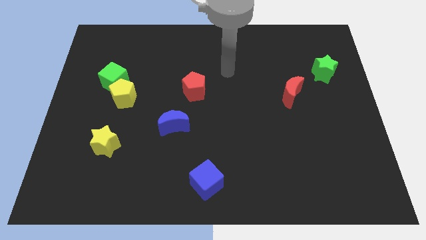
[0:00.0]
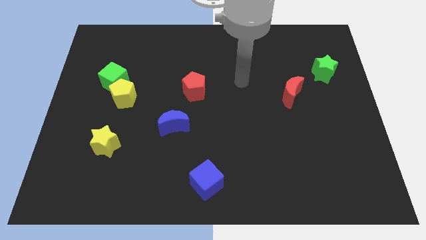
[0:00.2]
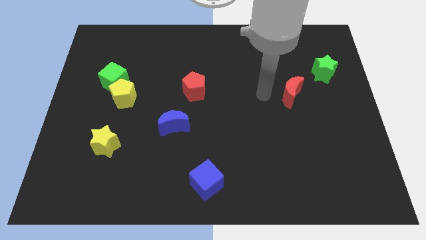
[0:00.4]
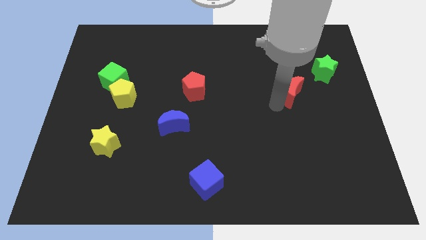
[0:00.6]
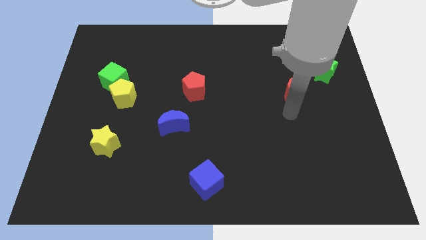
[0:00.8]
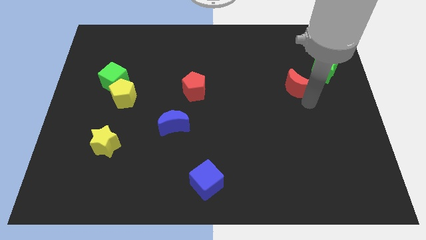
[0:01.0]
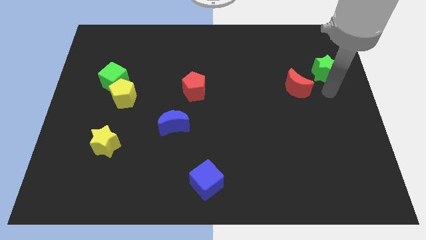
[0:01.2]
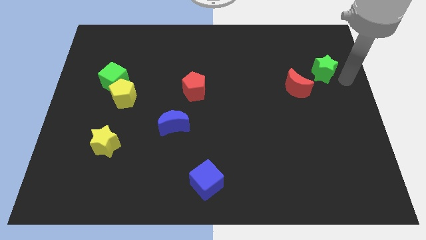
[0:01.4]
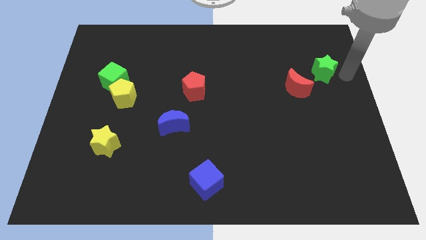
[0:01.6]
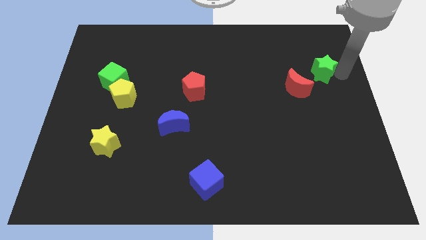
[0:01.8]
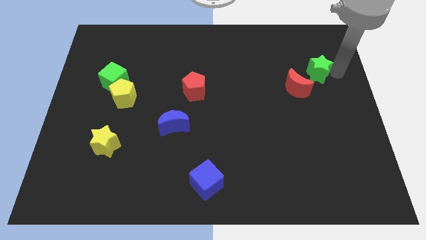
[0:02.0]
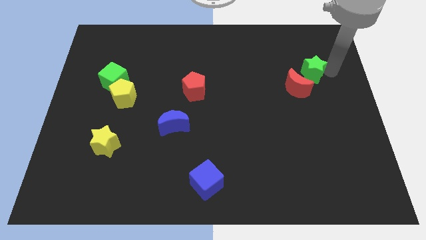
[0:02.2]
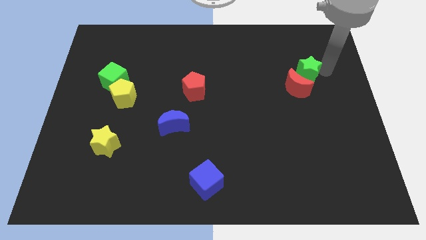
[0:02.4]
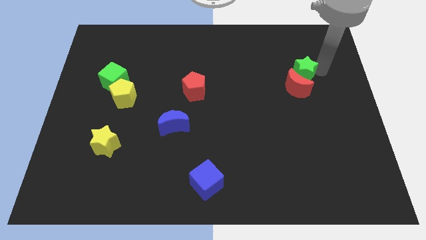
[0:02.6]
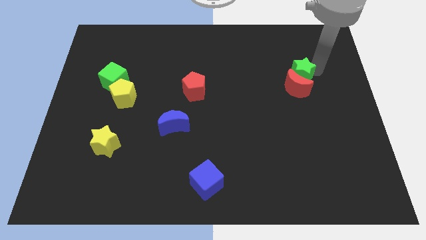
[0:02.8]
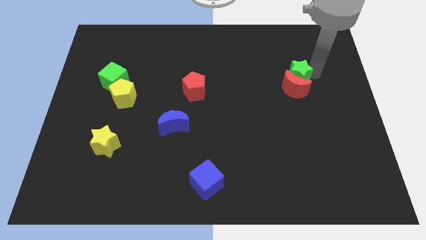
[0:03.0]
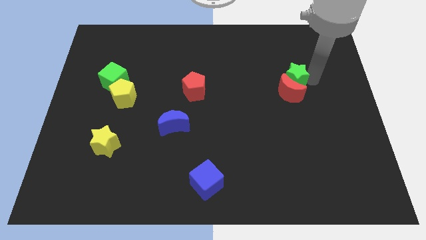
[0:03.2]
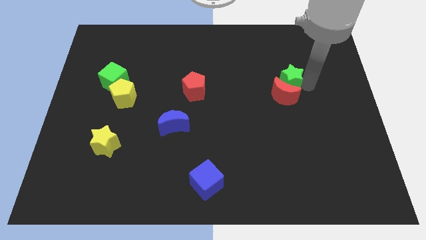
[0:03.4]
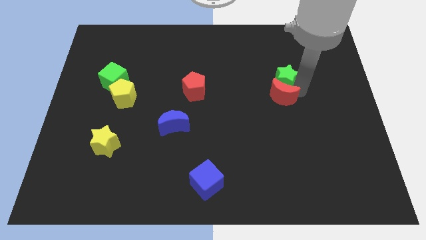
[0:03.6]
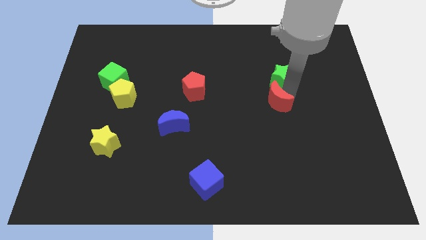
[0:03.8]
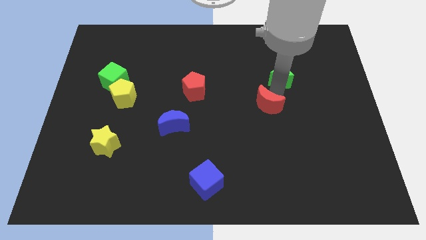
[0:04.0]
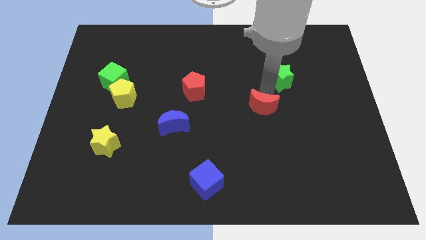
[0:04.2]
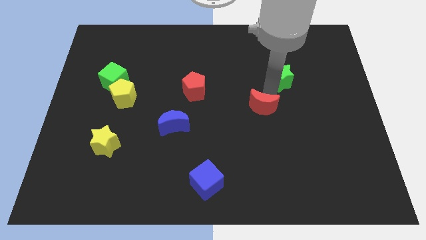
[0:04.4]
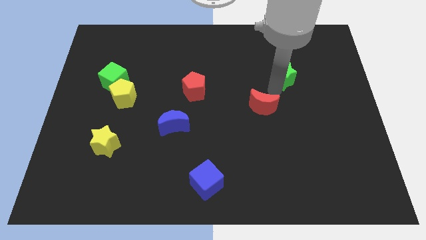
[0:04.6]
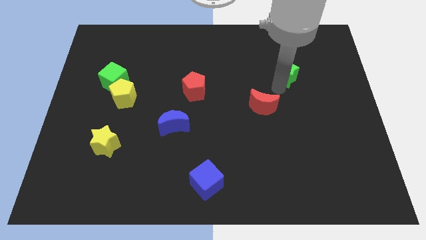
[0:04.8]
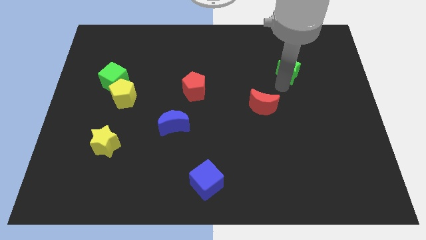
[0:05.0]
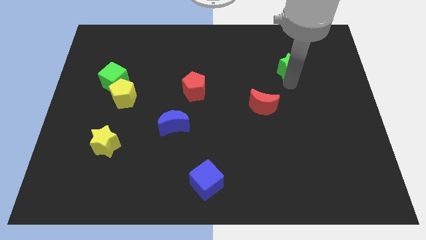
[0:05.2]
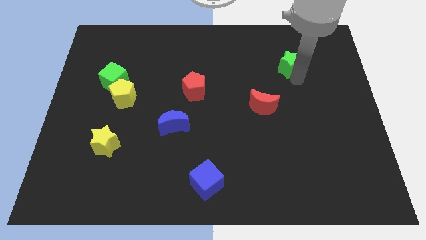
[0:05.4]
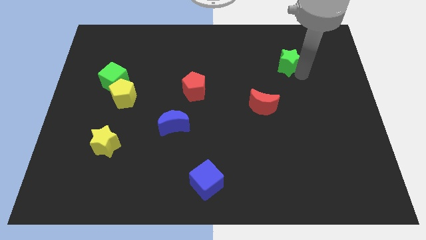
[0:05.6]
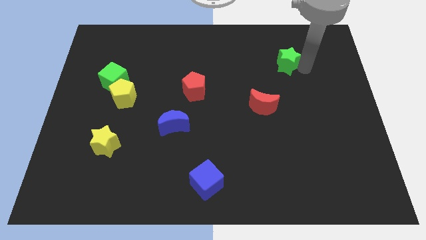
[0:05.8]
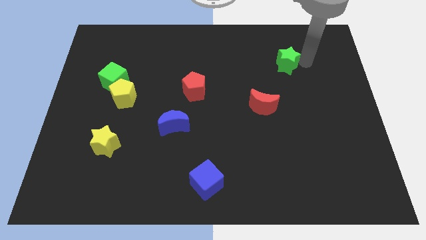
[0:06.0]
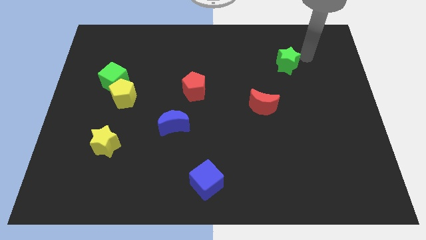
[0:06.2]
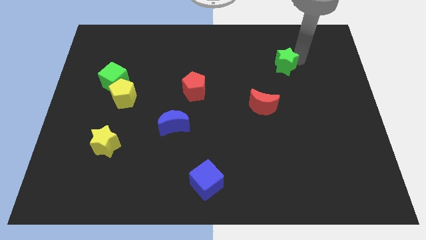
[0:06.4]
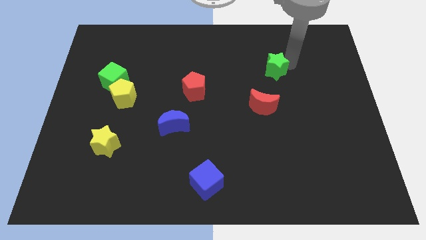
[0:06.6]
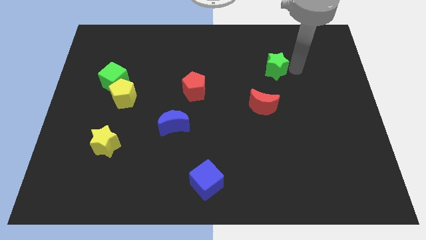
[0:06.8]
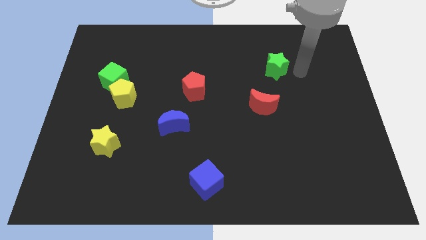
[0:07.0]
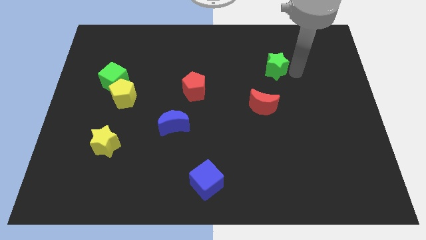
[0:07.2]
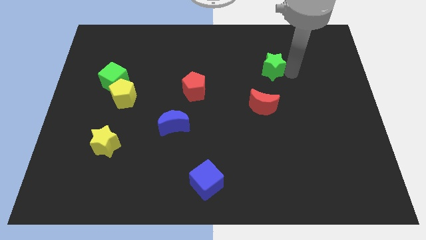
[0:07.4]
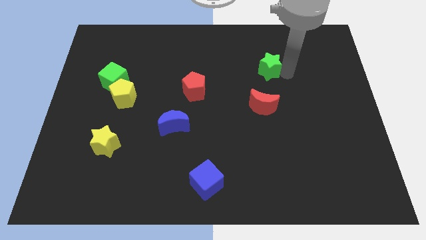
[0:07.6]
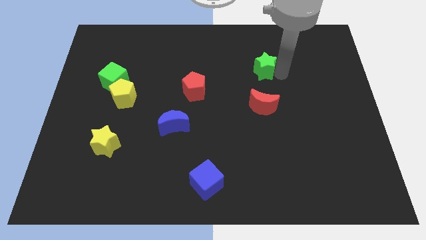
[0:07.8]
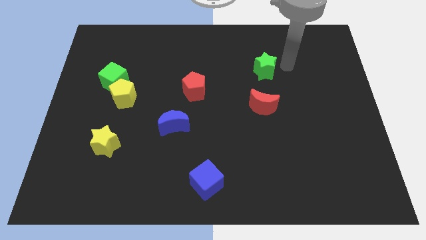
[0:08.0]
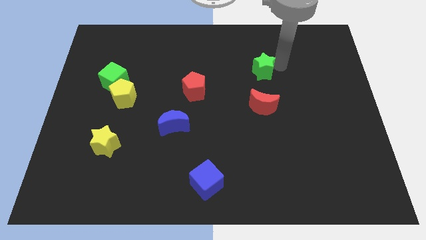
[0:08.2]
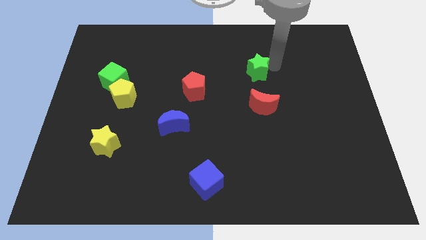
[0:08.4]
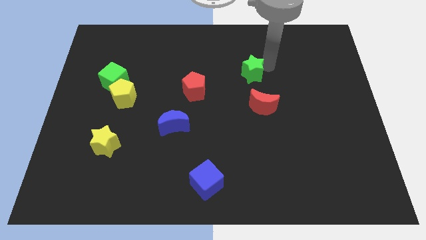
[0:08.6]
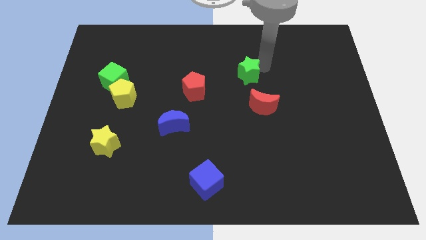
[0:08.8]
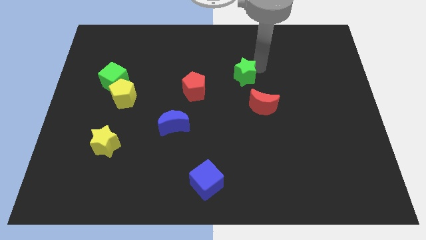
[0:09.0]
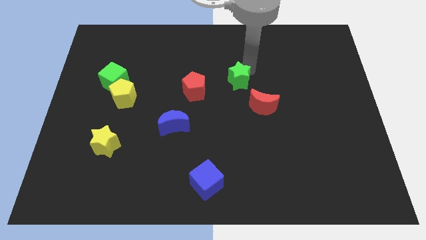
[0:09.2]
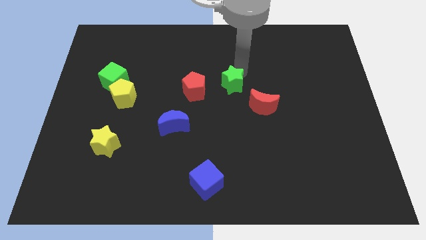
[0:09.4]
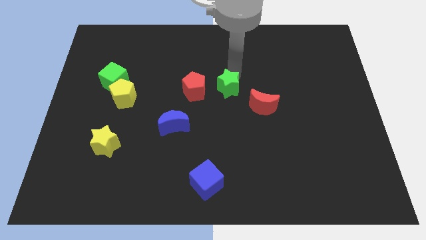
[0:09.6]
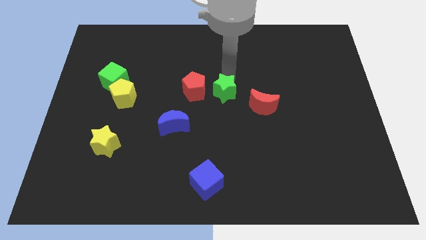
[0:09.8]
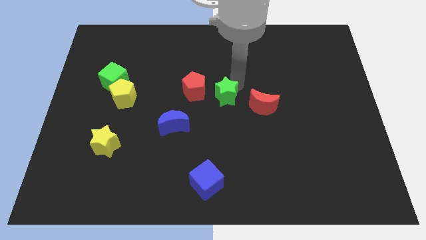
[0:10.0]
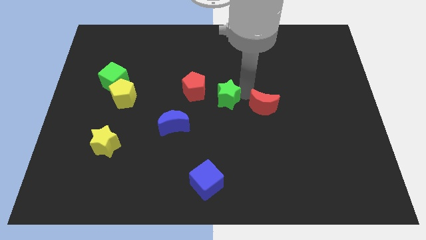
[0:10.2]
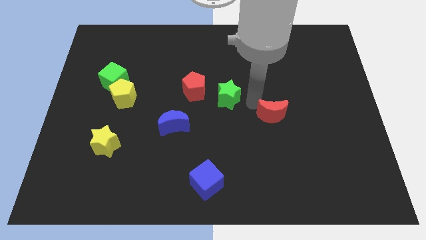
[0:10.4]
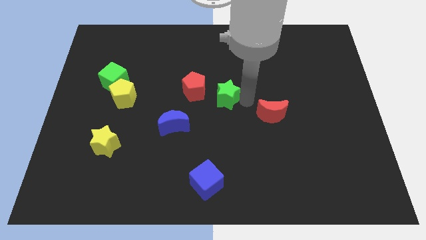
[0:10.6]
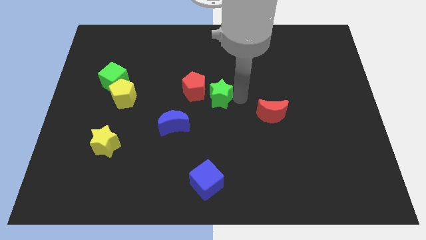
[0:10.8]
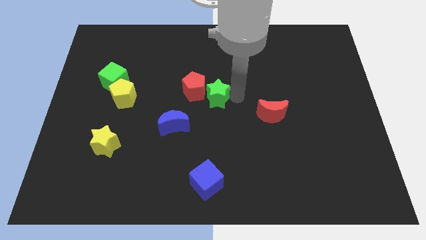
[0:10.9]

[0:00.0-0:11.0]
slide the green star to the red pentagon

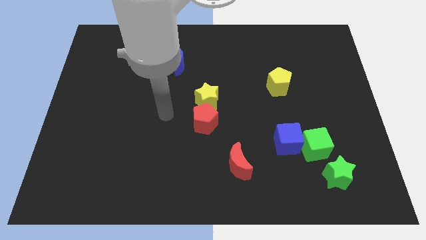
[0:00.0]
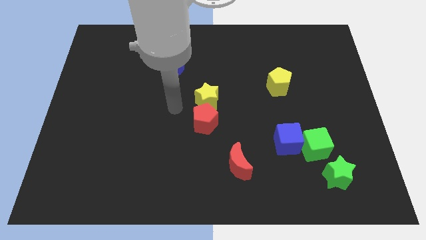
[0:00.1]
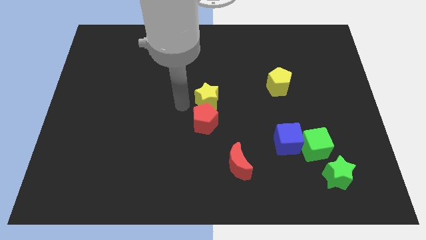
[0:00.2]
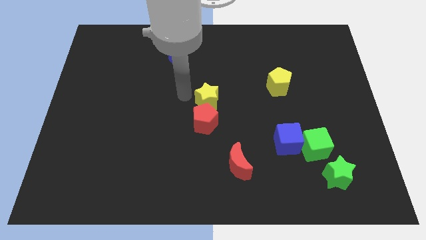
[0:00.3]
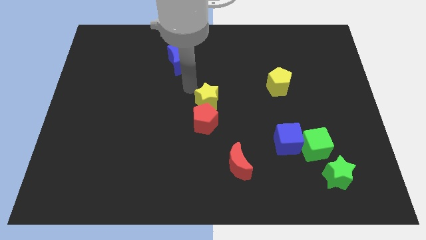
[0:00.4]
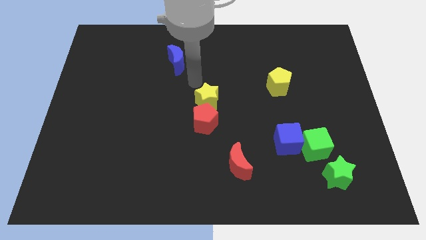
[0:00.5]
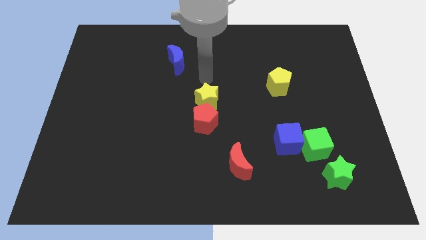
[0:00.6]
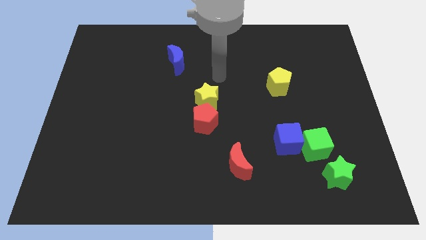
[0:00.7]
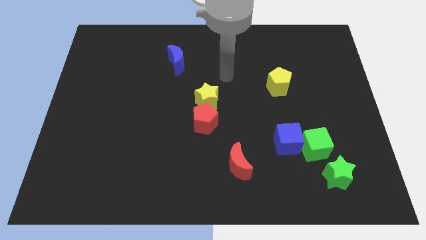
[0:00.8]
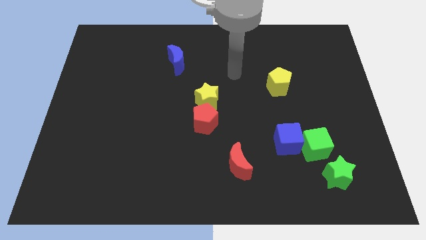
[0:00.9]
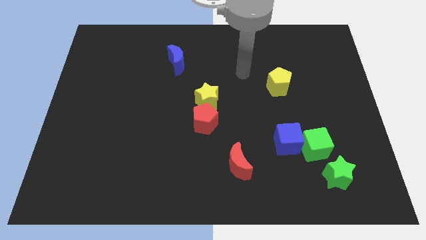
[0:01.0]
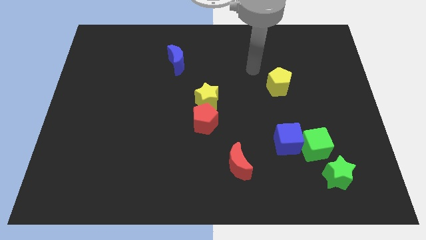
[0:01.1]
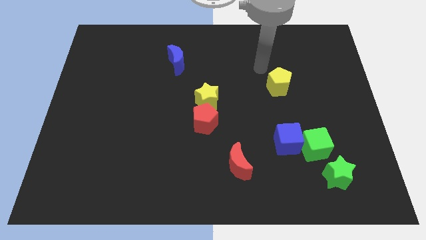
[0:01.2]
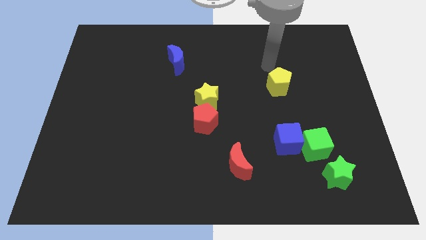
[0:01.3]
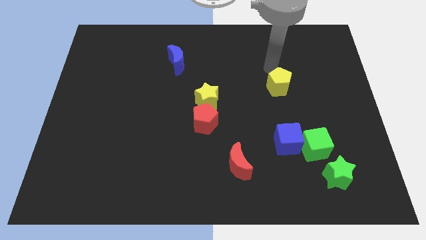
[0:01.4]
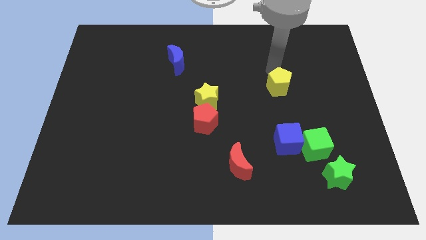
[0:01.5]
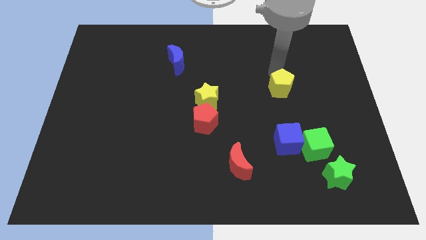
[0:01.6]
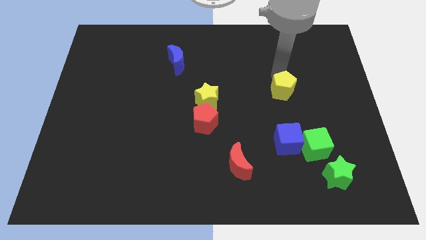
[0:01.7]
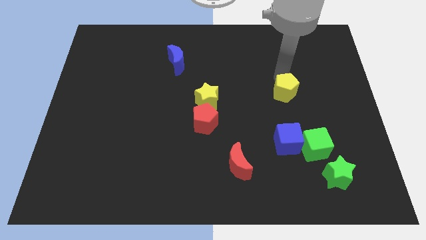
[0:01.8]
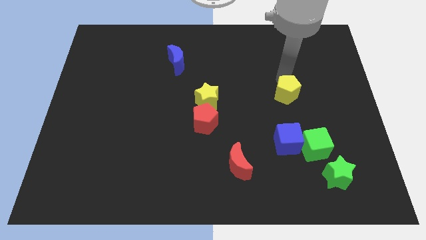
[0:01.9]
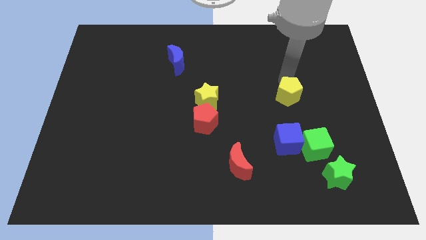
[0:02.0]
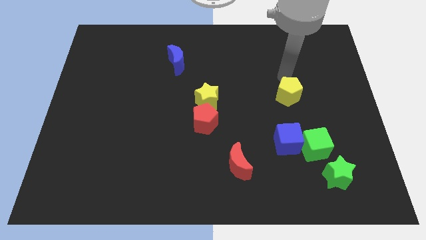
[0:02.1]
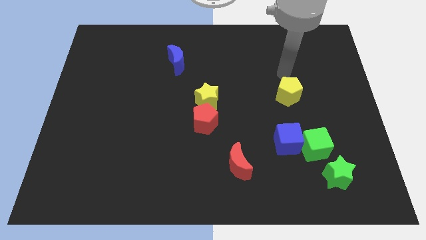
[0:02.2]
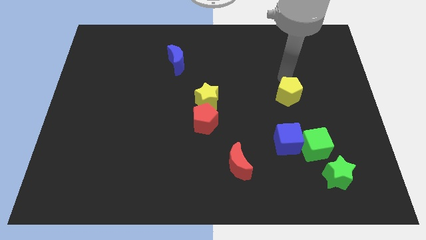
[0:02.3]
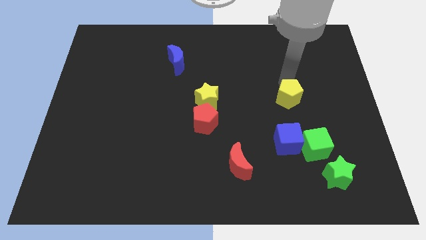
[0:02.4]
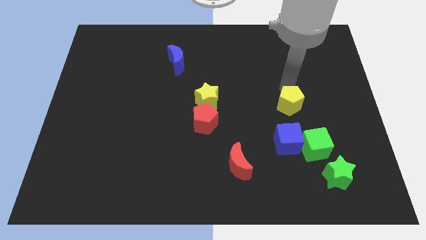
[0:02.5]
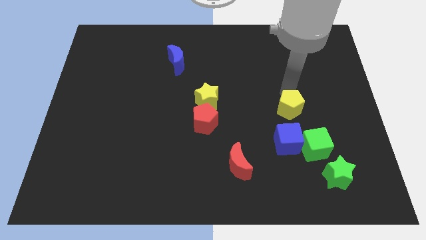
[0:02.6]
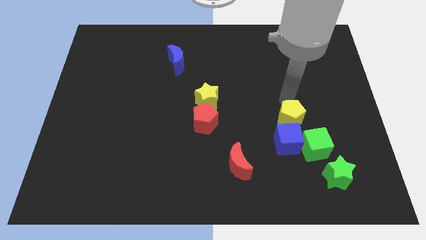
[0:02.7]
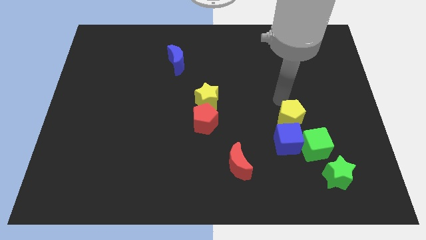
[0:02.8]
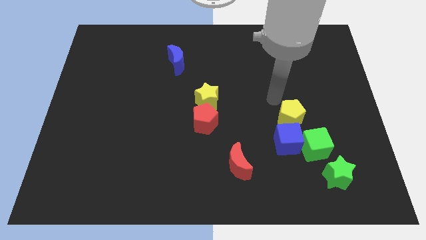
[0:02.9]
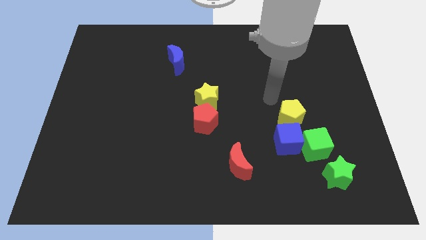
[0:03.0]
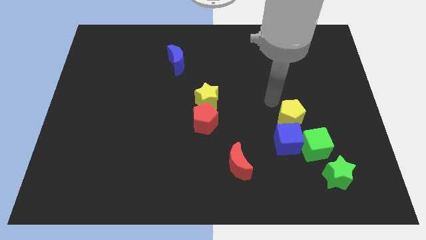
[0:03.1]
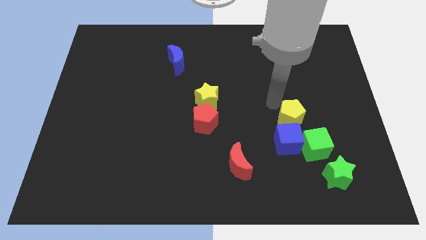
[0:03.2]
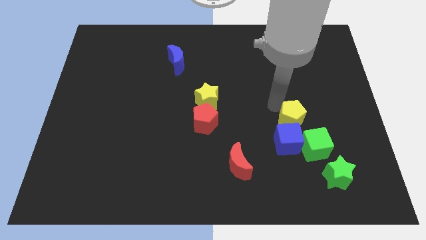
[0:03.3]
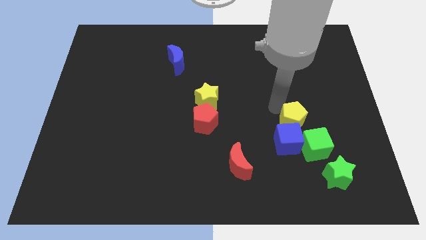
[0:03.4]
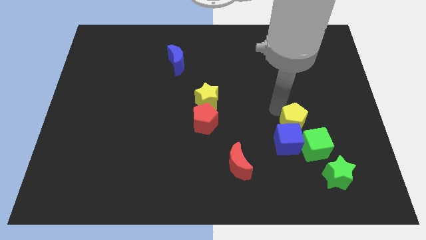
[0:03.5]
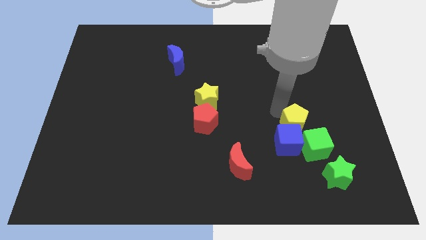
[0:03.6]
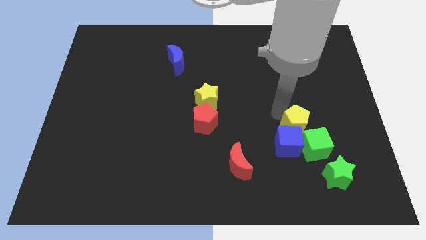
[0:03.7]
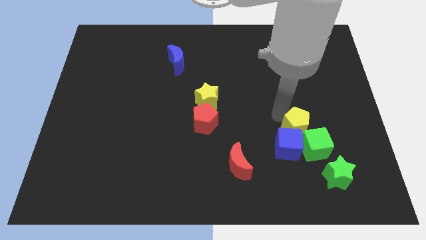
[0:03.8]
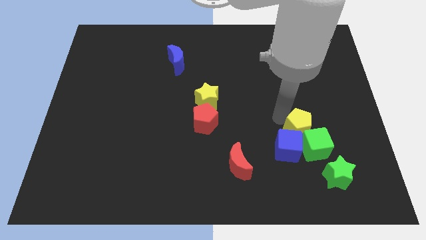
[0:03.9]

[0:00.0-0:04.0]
move the yellow pentagon to the green cube
